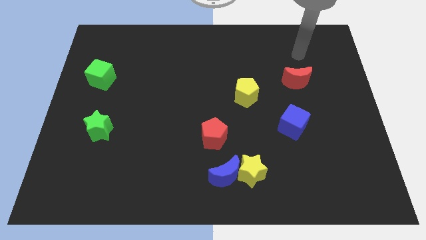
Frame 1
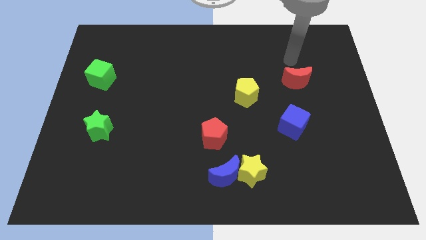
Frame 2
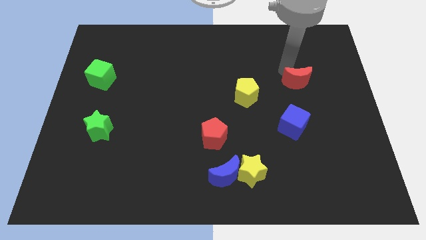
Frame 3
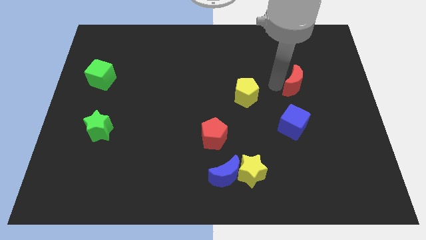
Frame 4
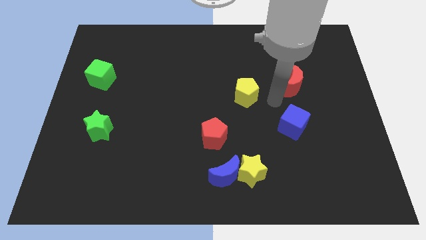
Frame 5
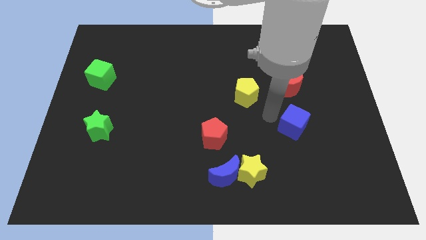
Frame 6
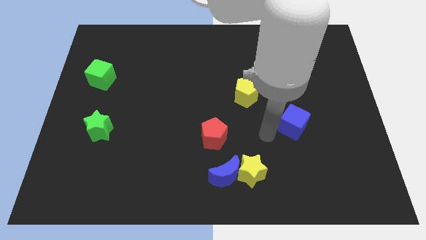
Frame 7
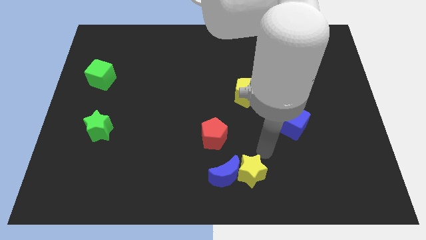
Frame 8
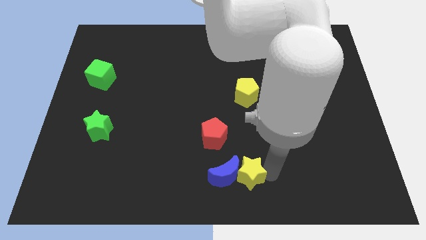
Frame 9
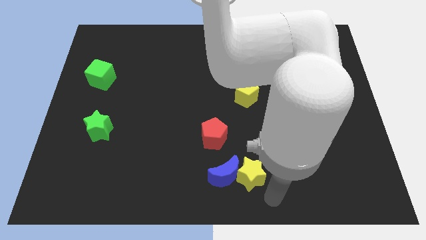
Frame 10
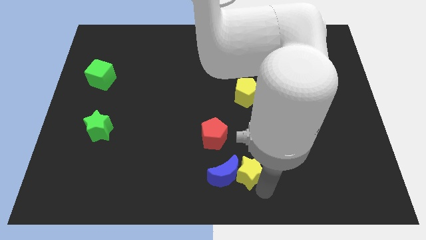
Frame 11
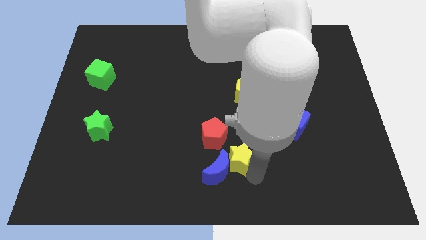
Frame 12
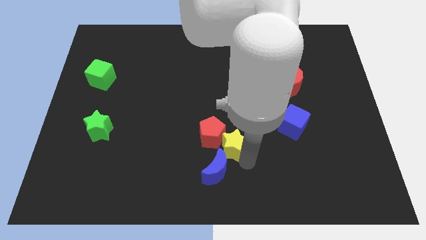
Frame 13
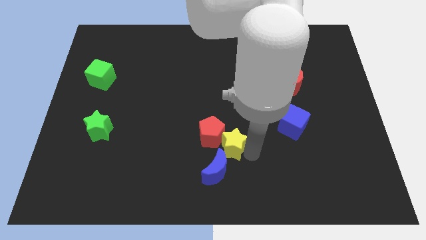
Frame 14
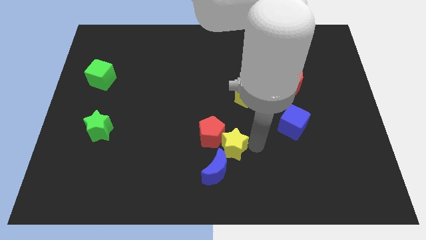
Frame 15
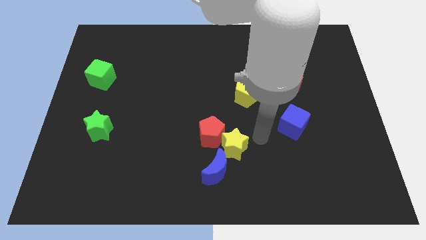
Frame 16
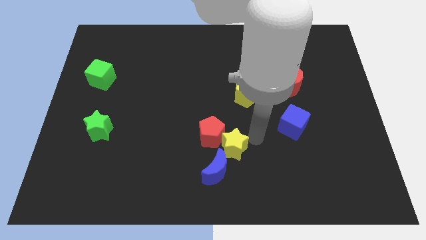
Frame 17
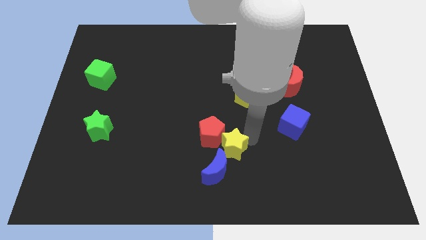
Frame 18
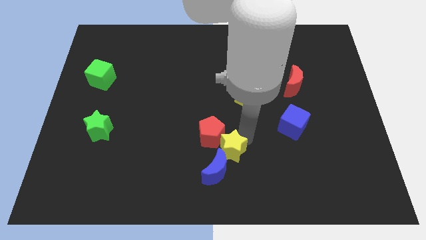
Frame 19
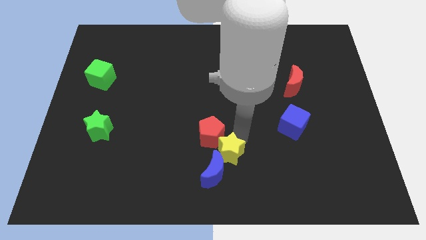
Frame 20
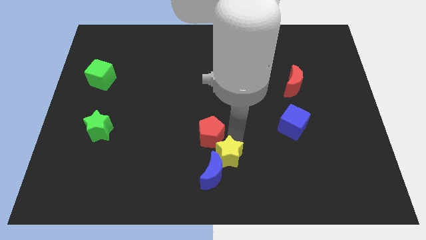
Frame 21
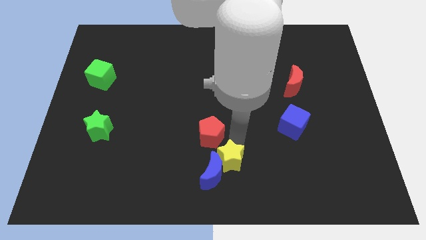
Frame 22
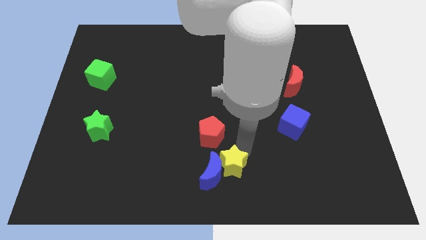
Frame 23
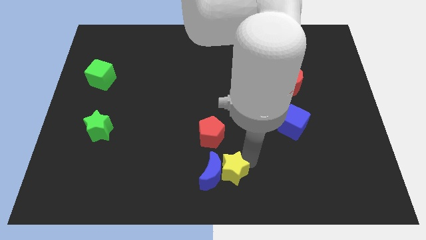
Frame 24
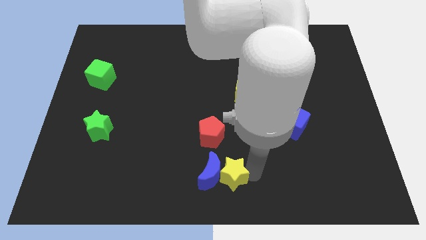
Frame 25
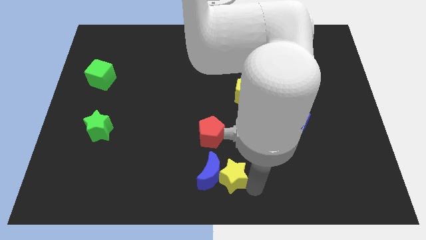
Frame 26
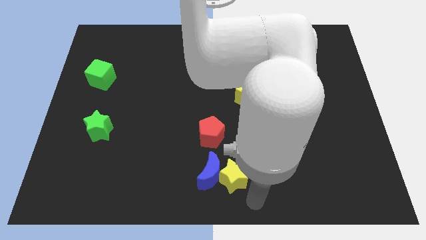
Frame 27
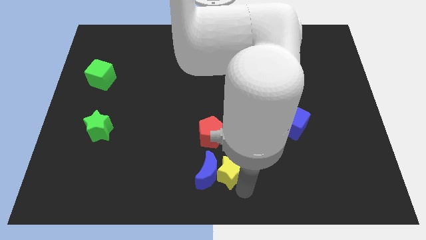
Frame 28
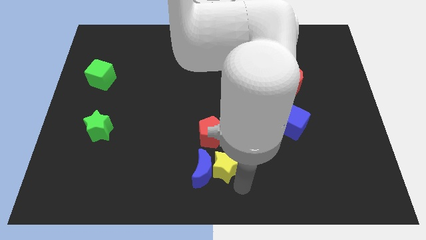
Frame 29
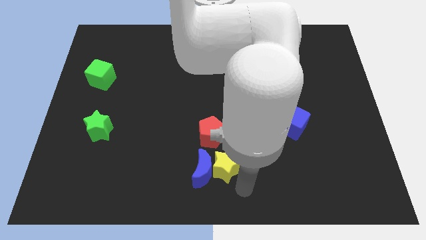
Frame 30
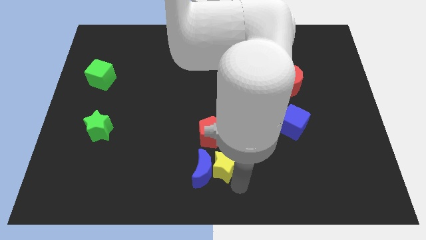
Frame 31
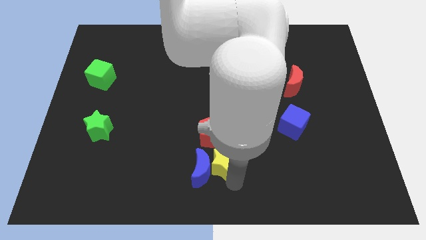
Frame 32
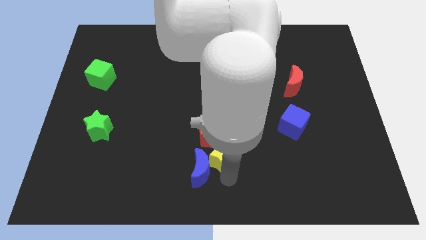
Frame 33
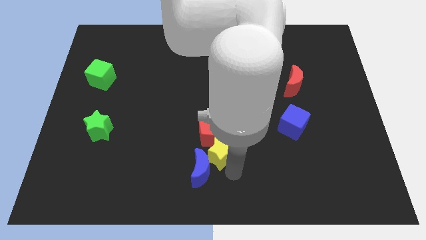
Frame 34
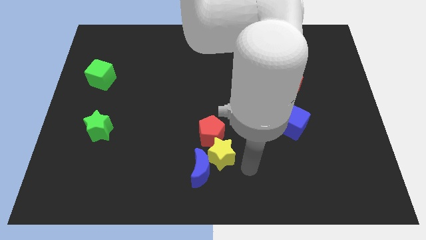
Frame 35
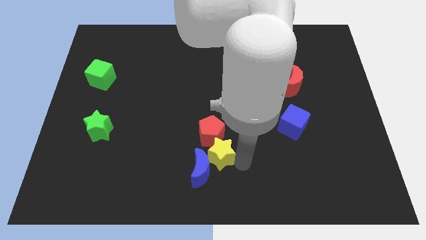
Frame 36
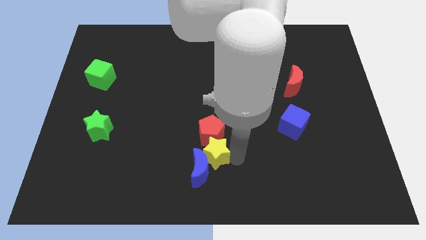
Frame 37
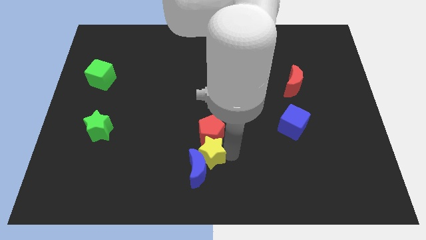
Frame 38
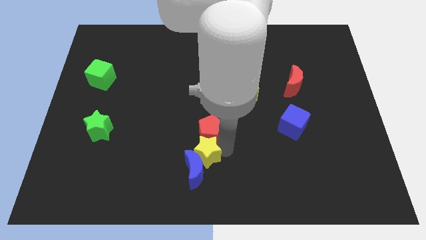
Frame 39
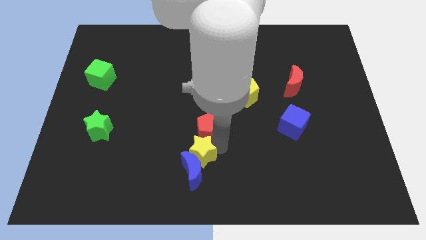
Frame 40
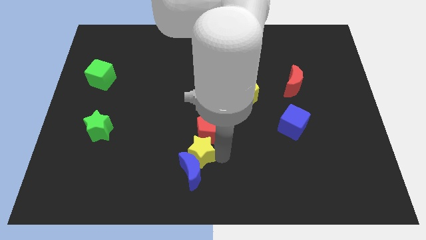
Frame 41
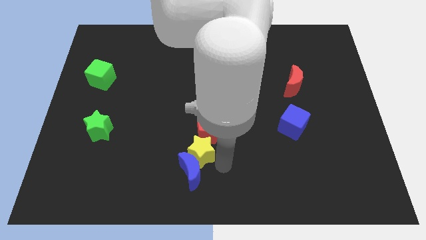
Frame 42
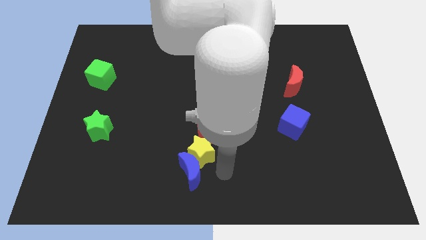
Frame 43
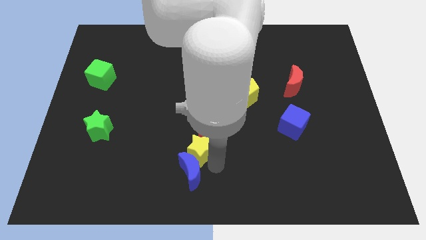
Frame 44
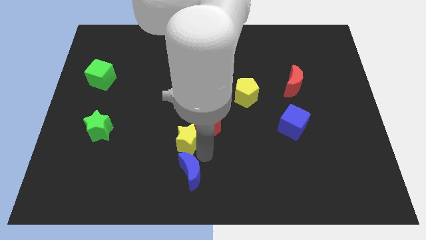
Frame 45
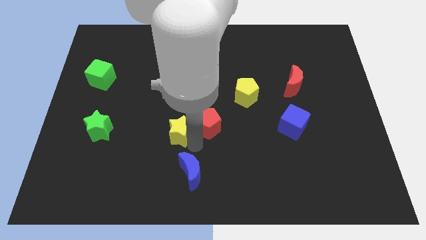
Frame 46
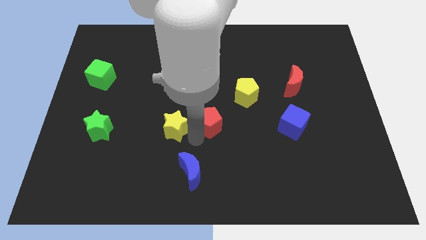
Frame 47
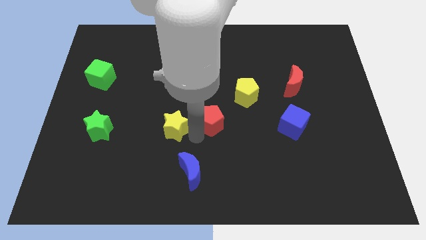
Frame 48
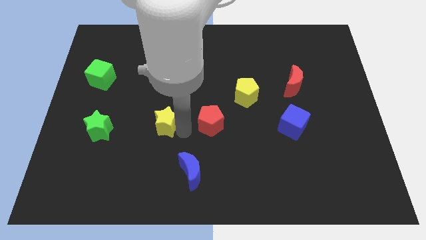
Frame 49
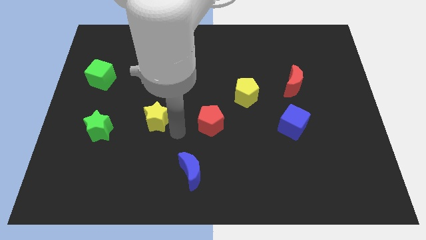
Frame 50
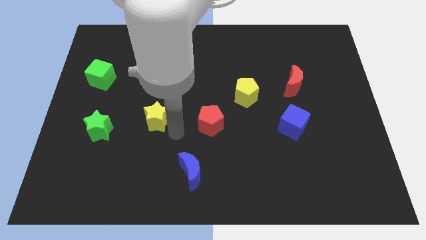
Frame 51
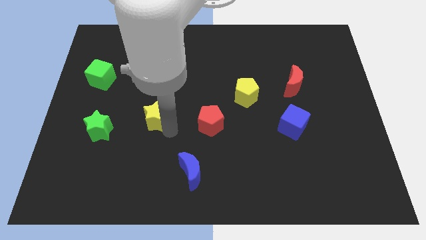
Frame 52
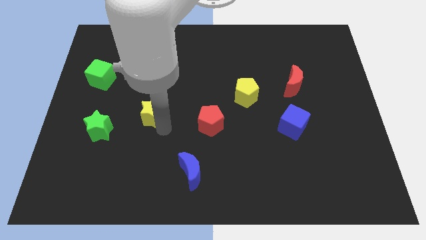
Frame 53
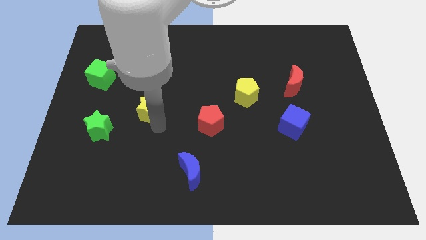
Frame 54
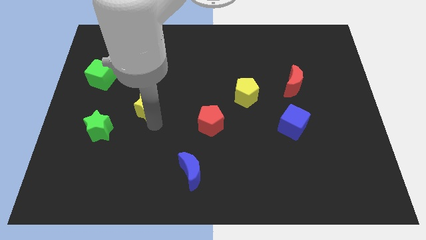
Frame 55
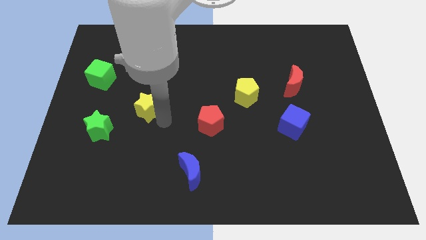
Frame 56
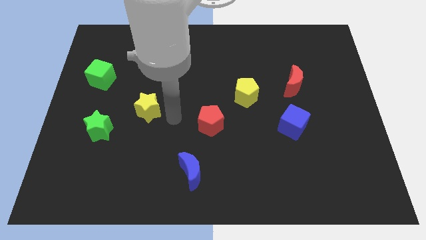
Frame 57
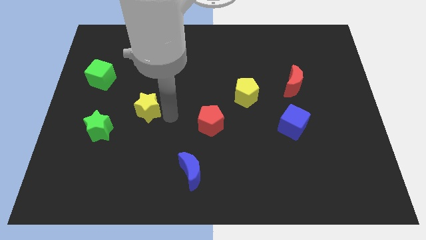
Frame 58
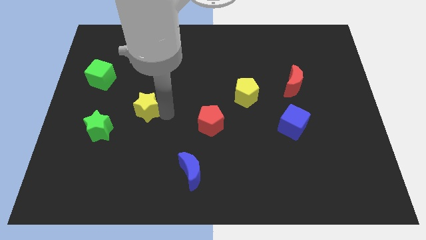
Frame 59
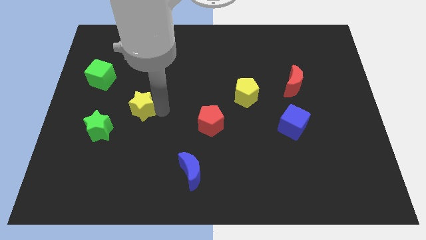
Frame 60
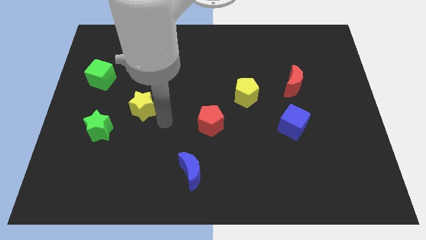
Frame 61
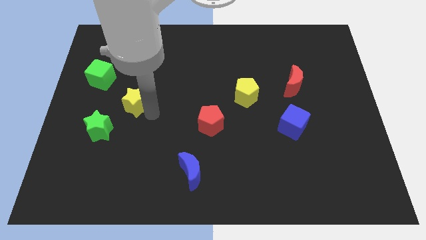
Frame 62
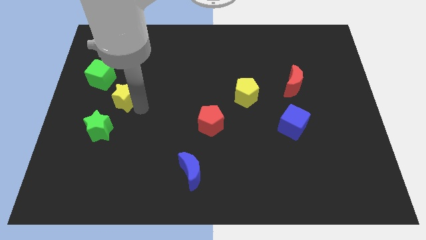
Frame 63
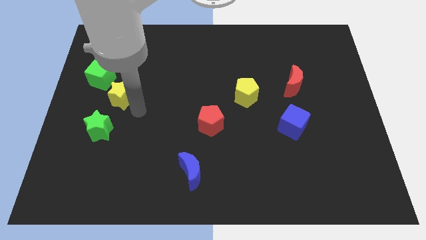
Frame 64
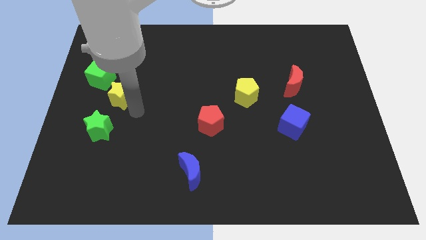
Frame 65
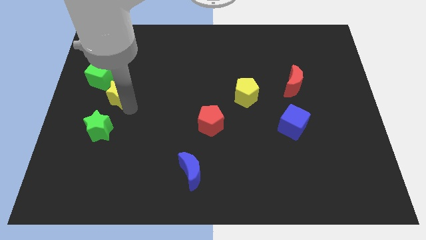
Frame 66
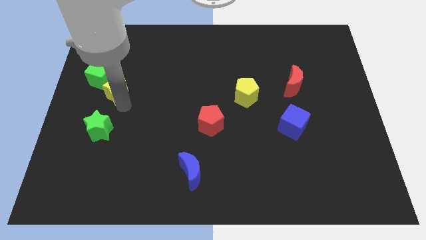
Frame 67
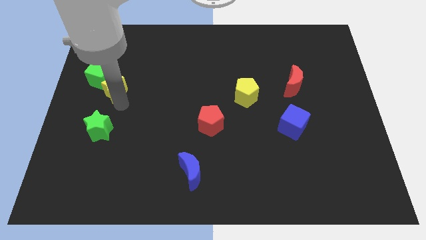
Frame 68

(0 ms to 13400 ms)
put the yellow star towards the green cube

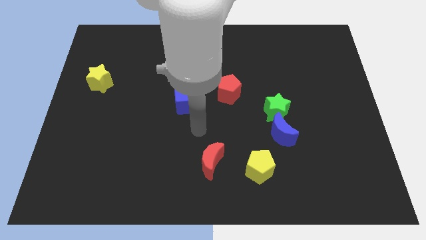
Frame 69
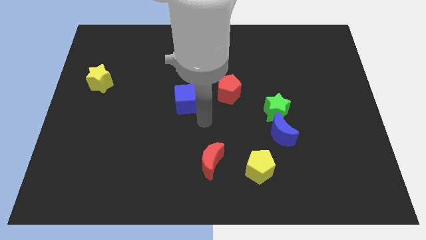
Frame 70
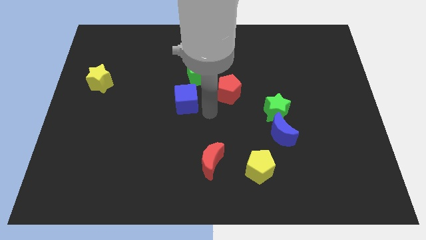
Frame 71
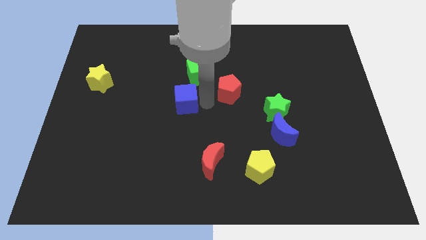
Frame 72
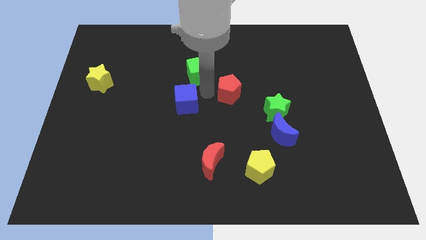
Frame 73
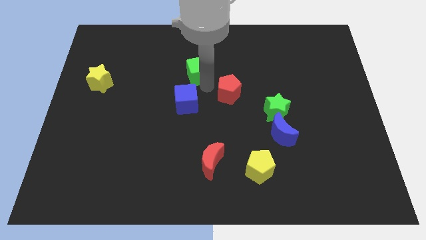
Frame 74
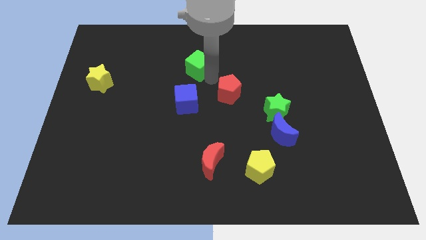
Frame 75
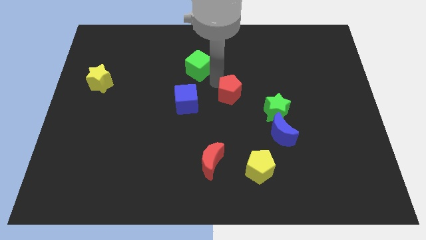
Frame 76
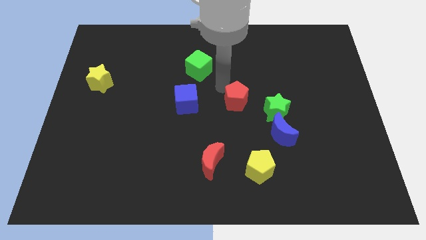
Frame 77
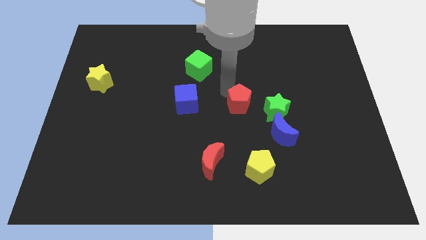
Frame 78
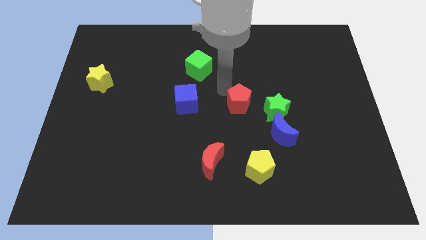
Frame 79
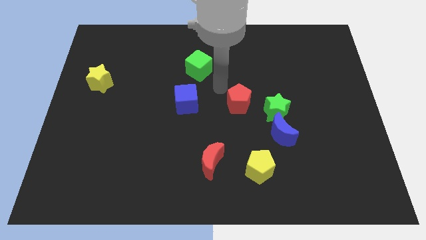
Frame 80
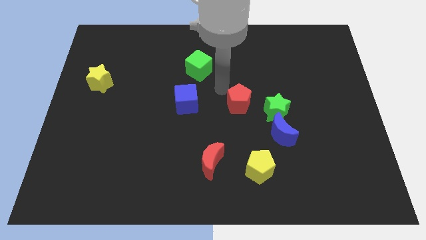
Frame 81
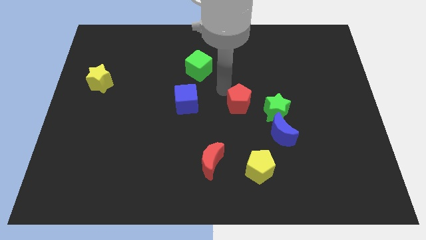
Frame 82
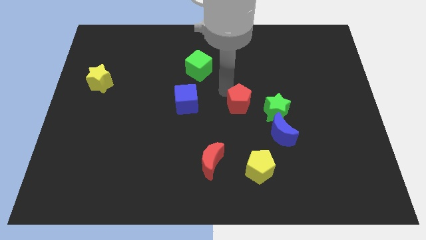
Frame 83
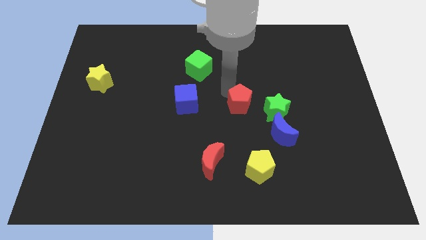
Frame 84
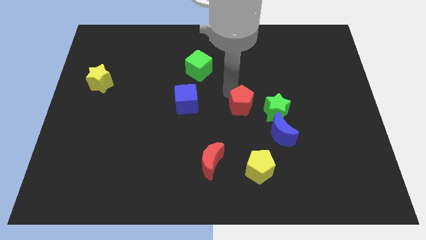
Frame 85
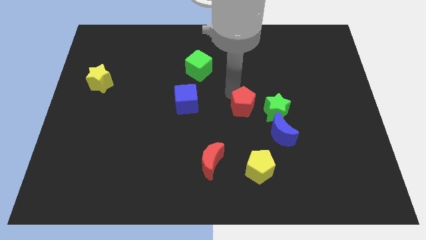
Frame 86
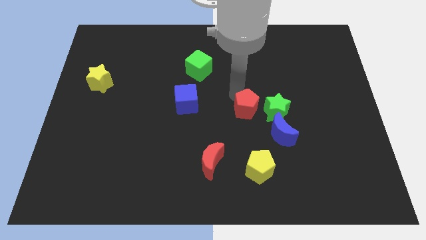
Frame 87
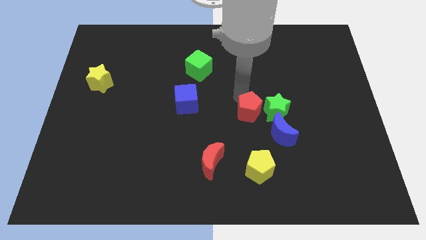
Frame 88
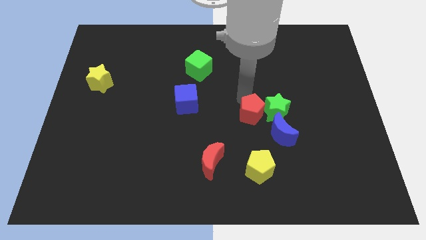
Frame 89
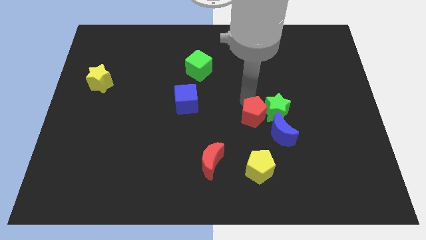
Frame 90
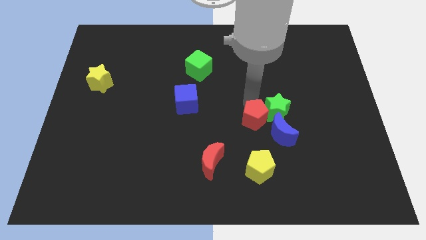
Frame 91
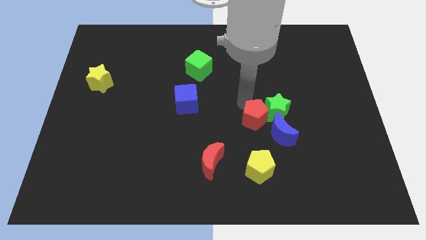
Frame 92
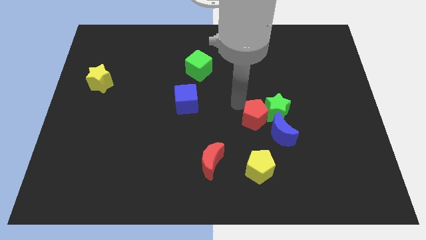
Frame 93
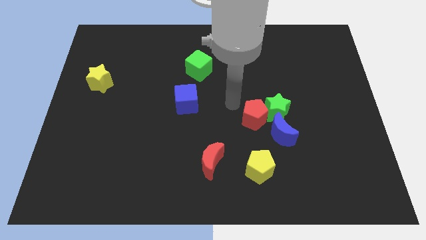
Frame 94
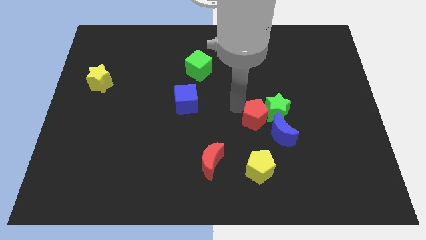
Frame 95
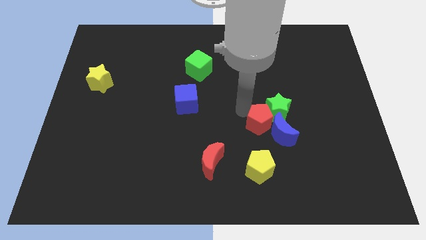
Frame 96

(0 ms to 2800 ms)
move the red pentagon close to the blue moon
